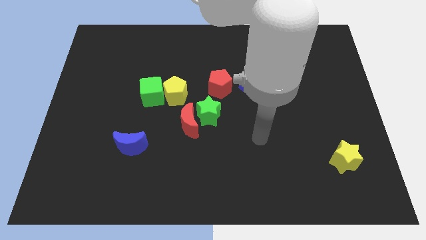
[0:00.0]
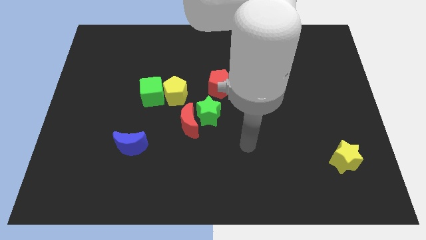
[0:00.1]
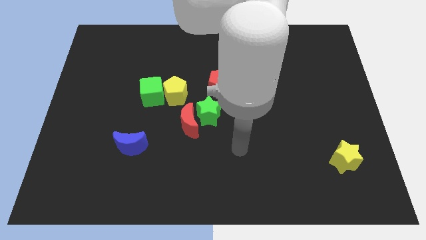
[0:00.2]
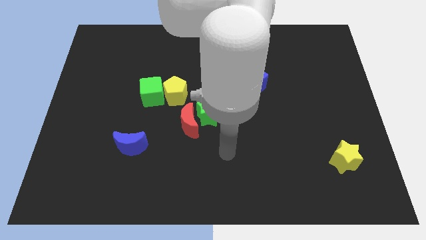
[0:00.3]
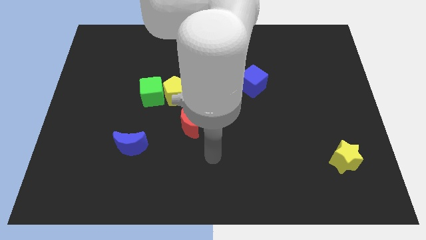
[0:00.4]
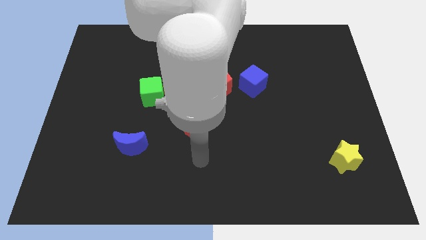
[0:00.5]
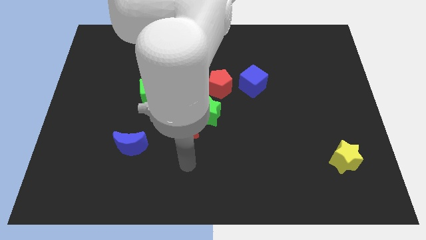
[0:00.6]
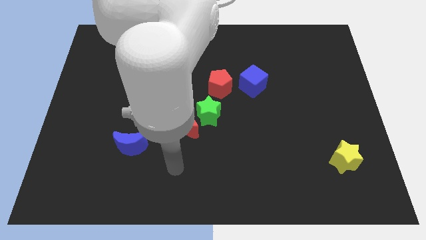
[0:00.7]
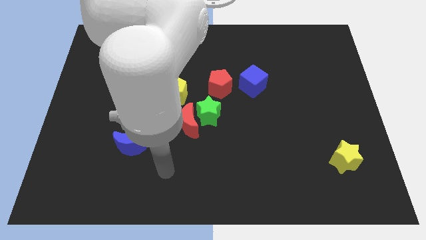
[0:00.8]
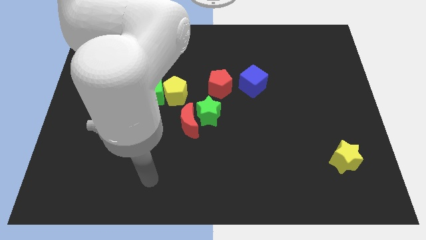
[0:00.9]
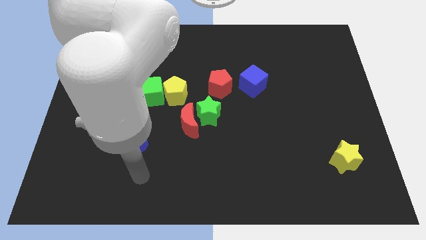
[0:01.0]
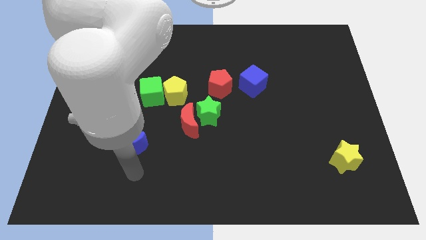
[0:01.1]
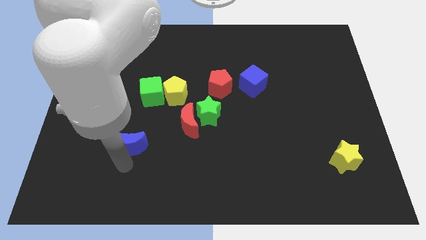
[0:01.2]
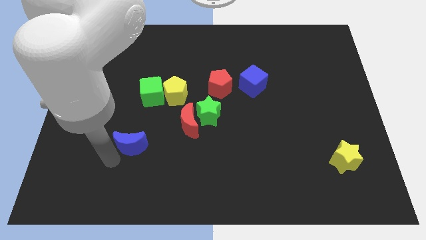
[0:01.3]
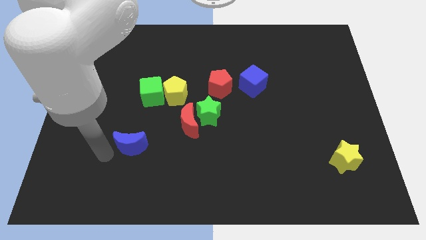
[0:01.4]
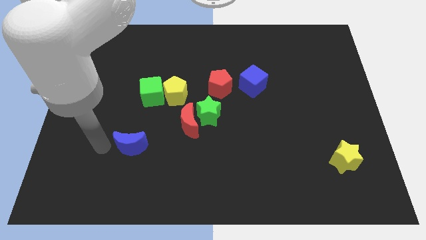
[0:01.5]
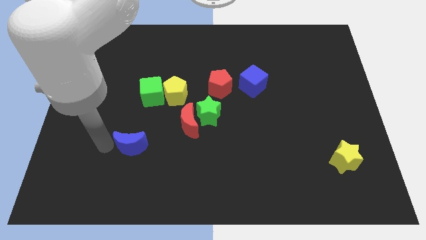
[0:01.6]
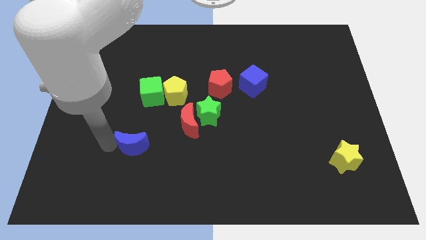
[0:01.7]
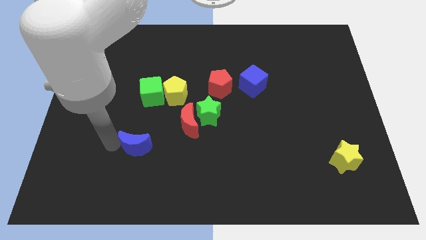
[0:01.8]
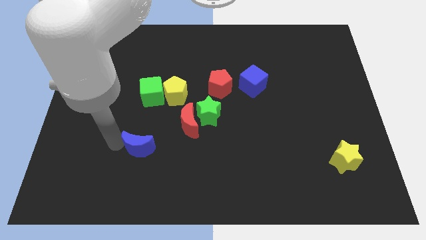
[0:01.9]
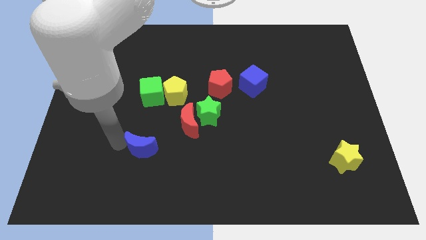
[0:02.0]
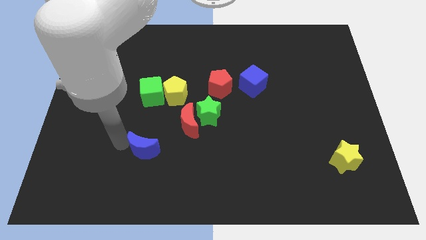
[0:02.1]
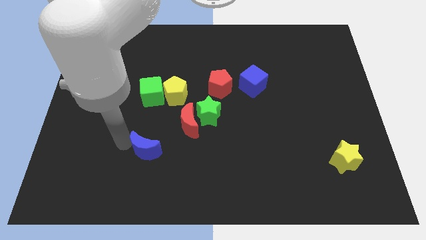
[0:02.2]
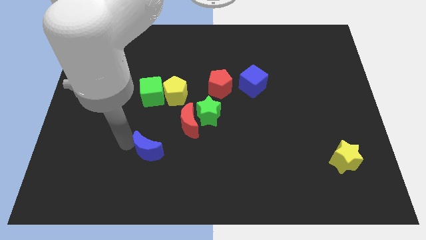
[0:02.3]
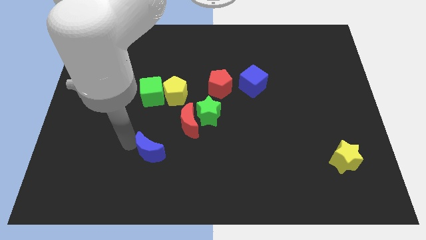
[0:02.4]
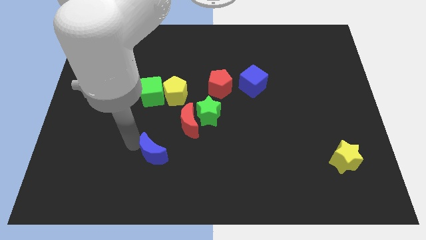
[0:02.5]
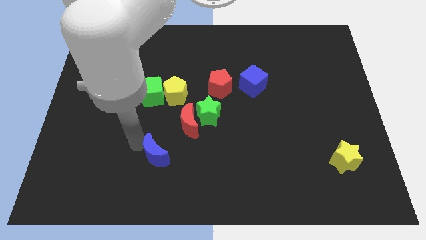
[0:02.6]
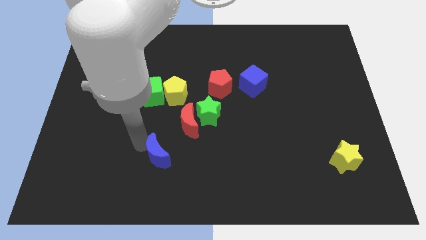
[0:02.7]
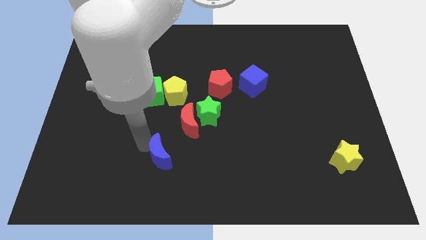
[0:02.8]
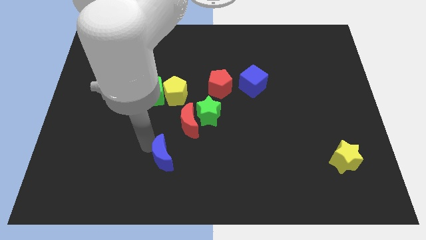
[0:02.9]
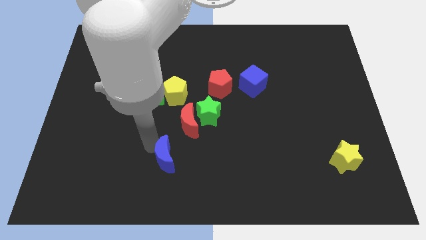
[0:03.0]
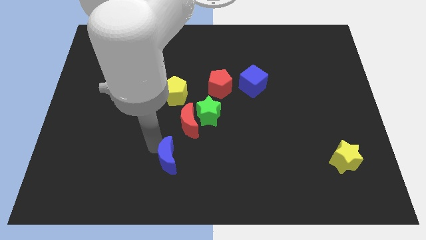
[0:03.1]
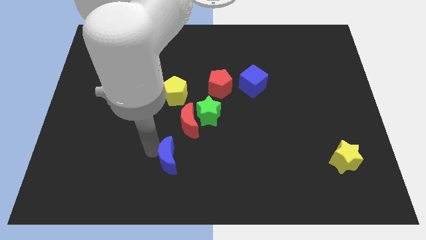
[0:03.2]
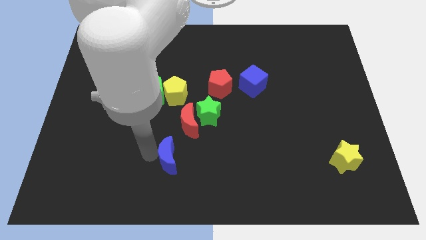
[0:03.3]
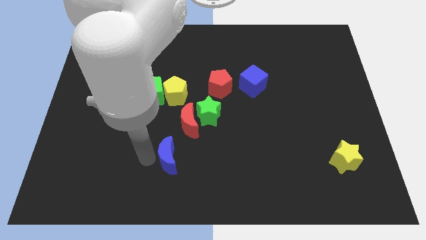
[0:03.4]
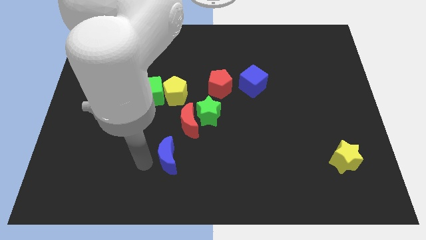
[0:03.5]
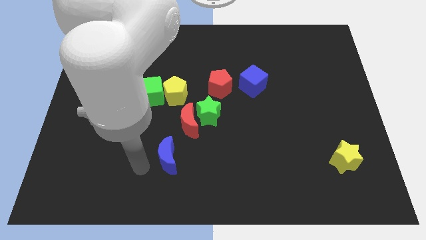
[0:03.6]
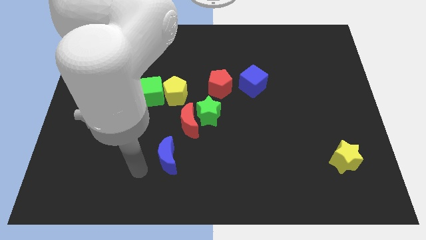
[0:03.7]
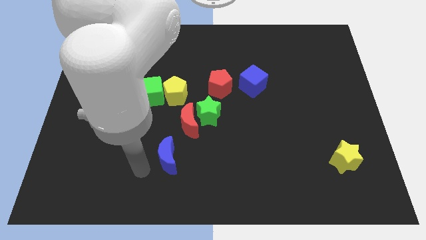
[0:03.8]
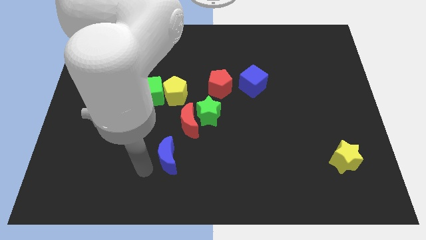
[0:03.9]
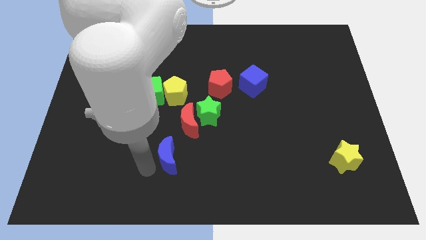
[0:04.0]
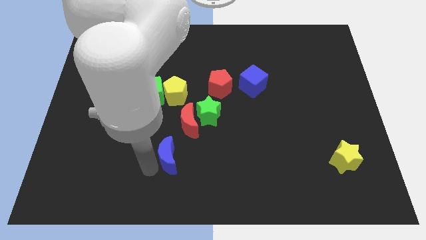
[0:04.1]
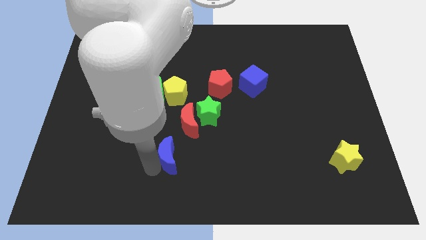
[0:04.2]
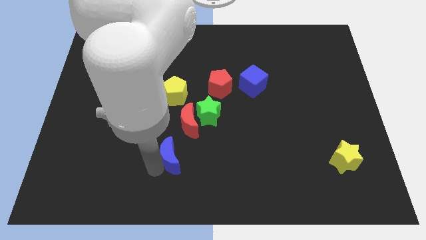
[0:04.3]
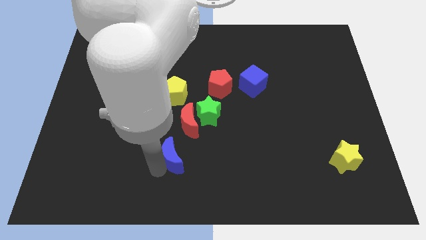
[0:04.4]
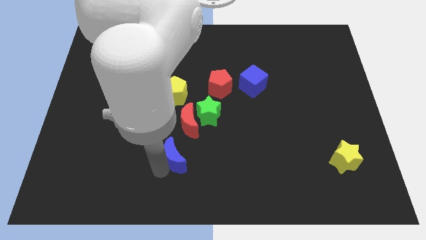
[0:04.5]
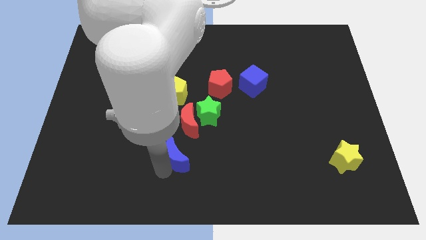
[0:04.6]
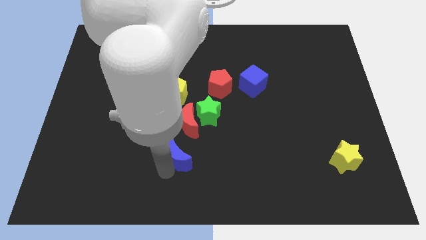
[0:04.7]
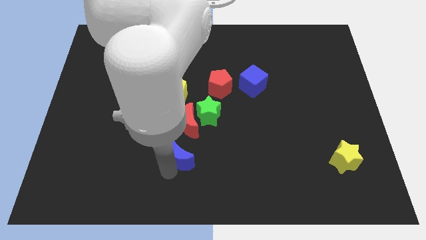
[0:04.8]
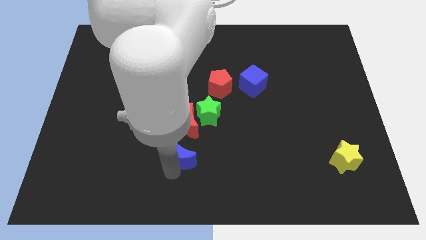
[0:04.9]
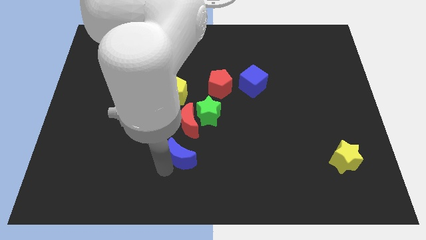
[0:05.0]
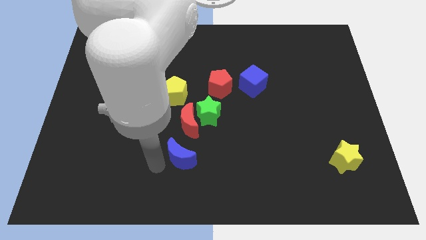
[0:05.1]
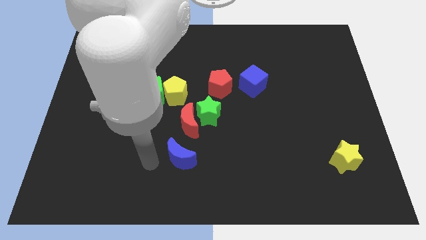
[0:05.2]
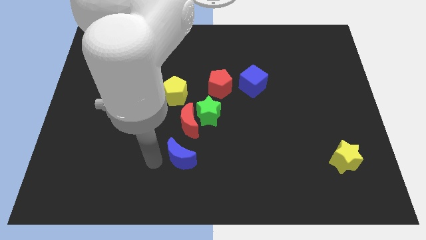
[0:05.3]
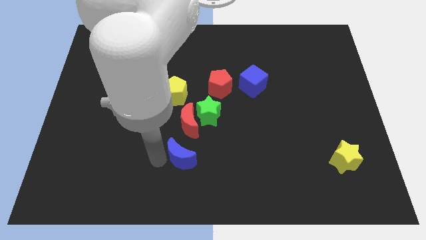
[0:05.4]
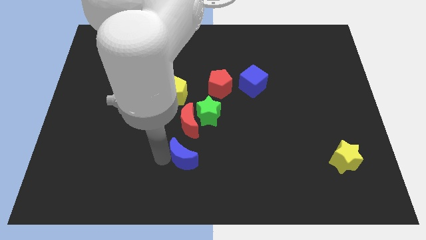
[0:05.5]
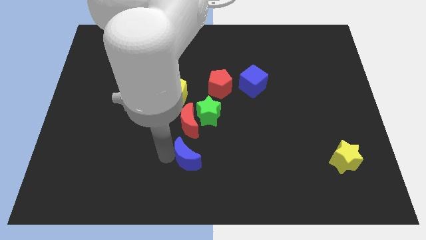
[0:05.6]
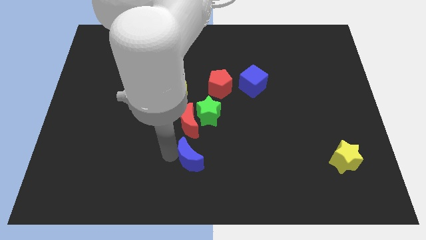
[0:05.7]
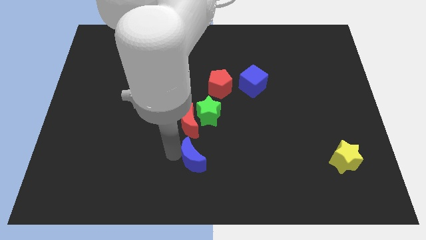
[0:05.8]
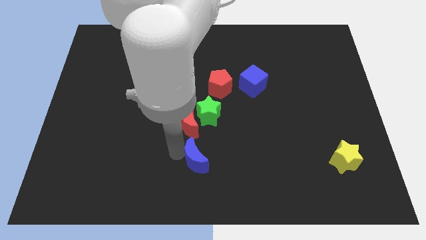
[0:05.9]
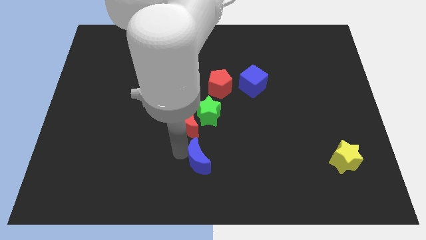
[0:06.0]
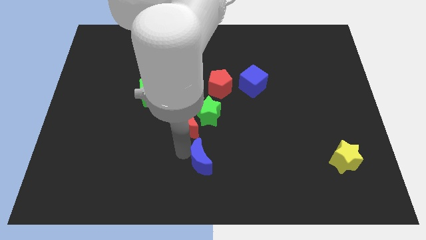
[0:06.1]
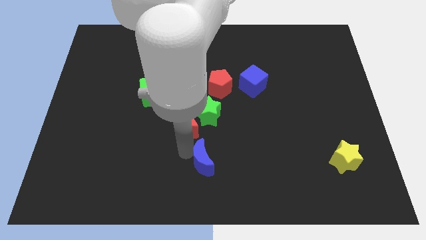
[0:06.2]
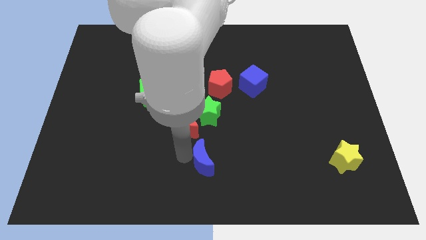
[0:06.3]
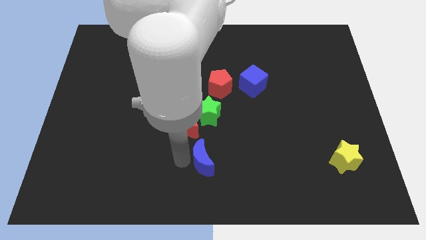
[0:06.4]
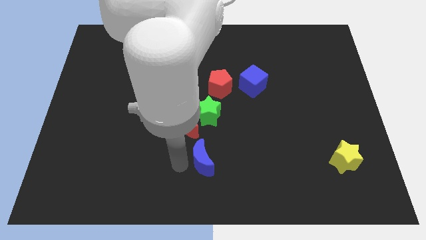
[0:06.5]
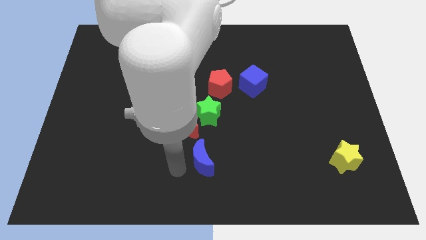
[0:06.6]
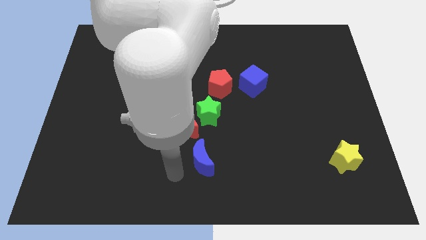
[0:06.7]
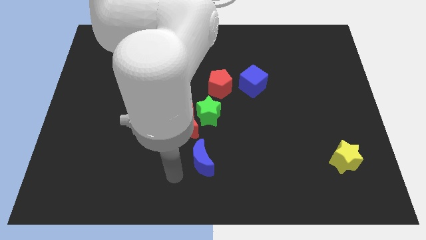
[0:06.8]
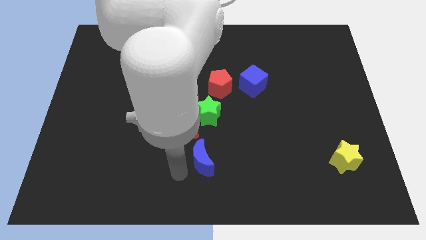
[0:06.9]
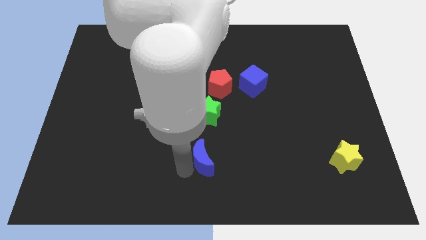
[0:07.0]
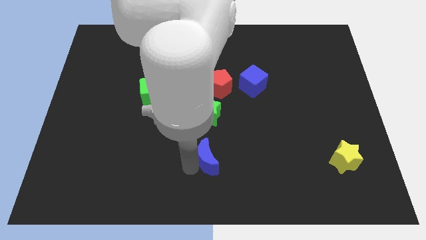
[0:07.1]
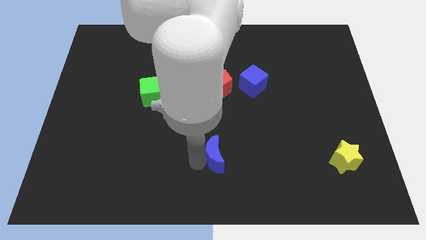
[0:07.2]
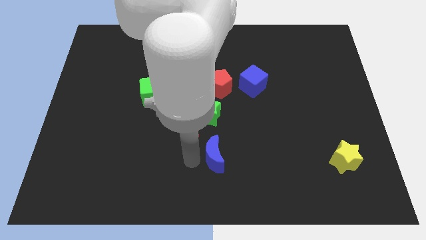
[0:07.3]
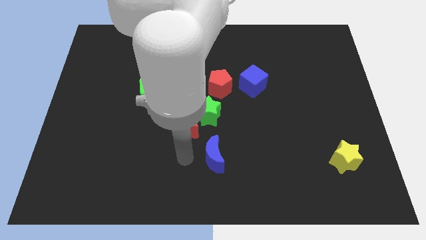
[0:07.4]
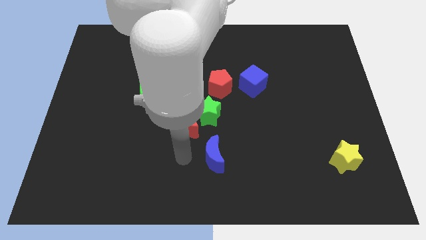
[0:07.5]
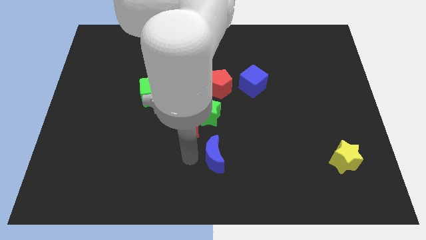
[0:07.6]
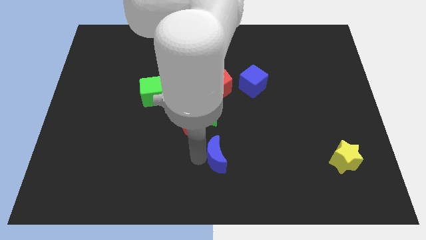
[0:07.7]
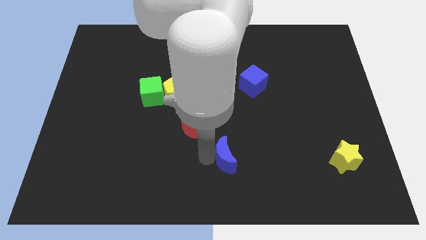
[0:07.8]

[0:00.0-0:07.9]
move the blue moon right
